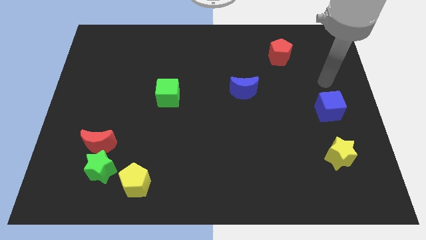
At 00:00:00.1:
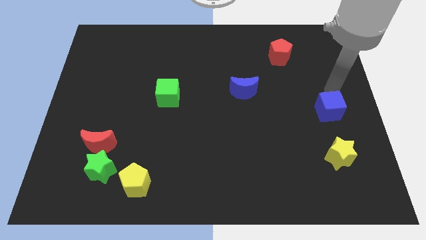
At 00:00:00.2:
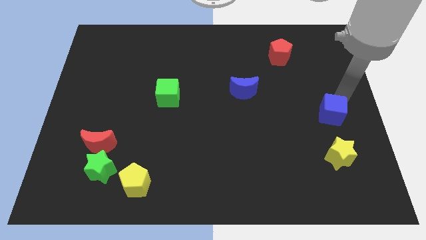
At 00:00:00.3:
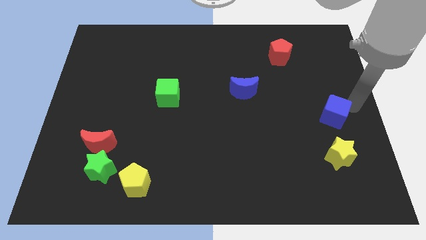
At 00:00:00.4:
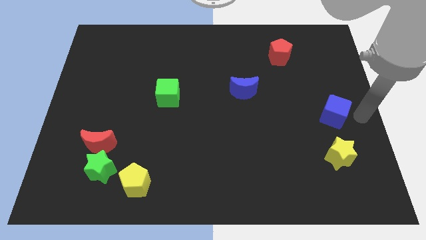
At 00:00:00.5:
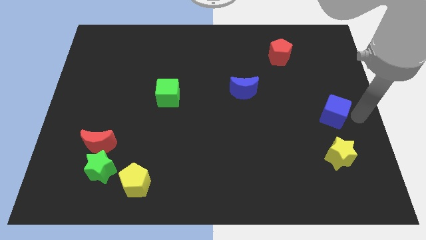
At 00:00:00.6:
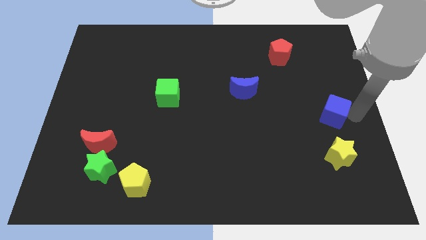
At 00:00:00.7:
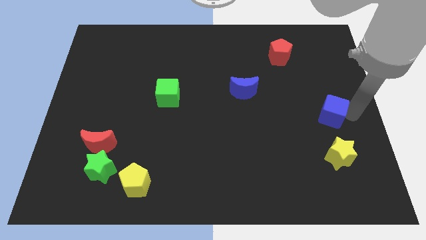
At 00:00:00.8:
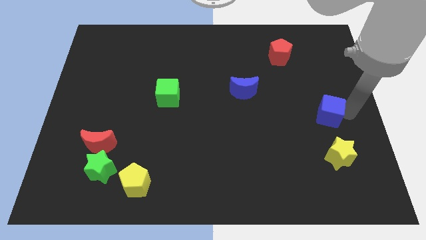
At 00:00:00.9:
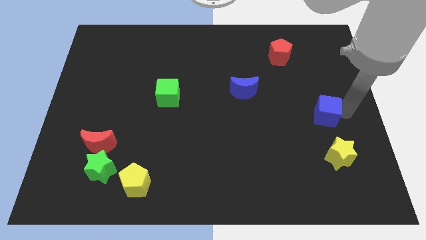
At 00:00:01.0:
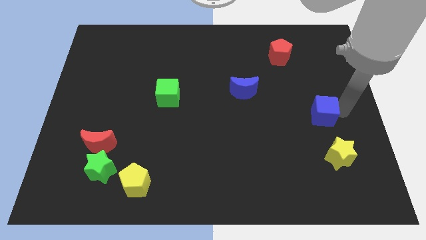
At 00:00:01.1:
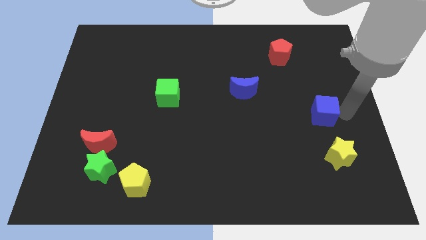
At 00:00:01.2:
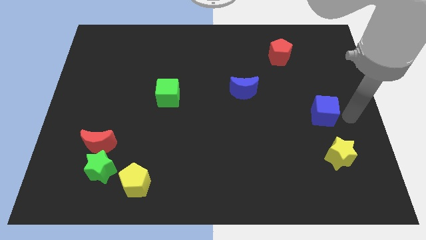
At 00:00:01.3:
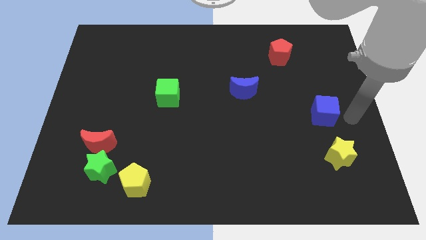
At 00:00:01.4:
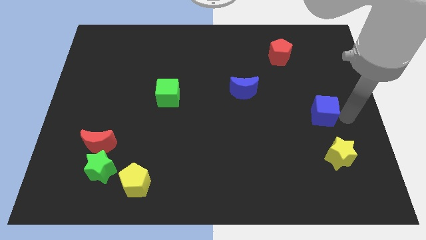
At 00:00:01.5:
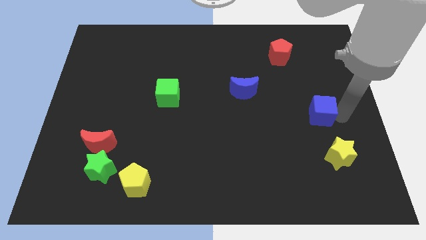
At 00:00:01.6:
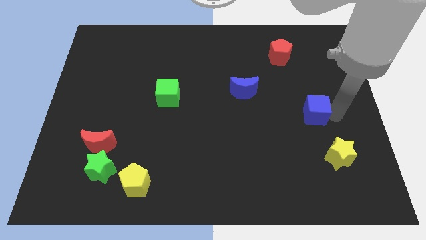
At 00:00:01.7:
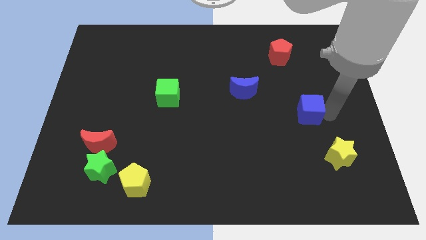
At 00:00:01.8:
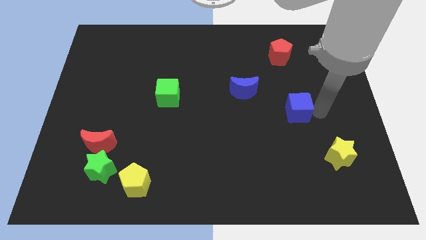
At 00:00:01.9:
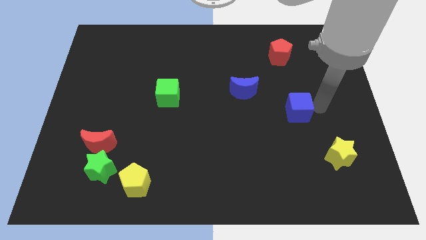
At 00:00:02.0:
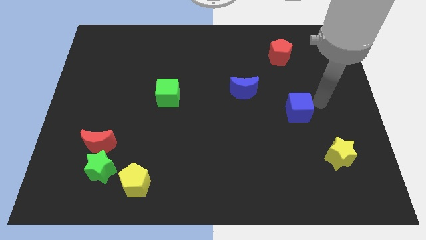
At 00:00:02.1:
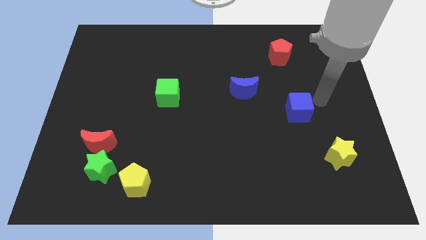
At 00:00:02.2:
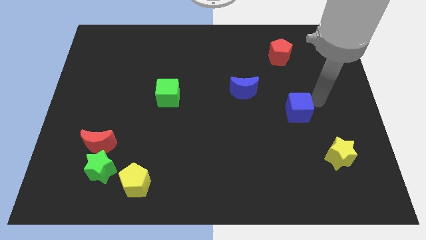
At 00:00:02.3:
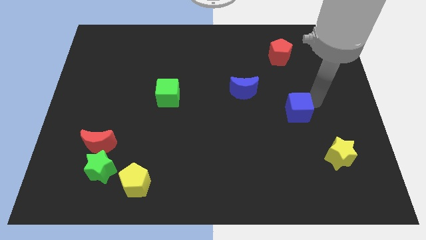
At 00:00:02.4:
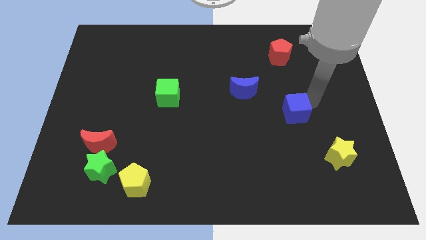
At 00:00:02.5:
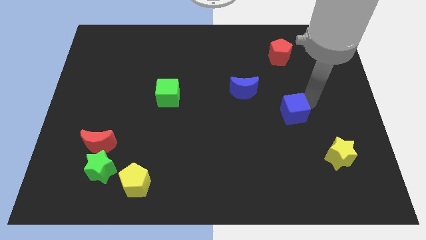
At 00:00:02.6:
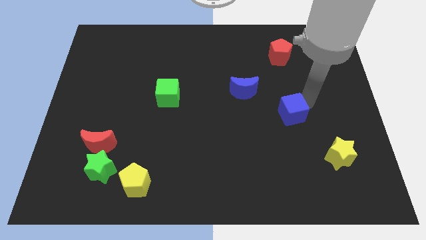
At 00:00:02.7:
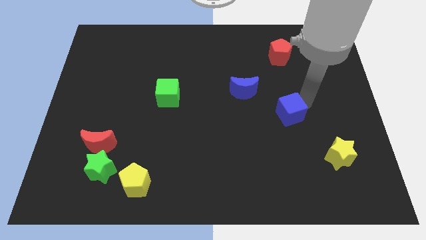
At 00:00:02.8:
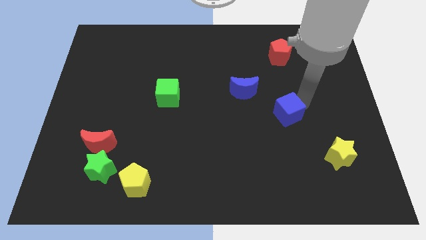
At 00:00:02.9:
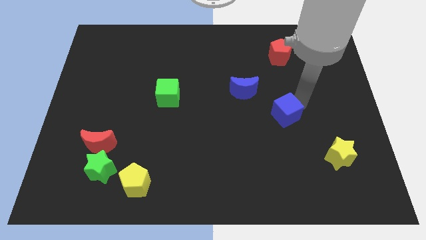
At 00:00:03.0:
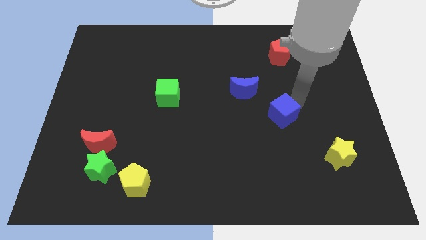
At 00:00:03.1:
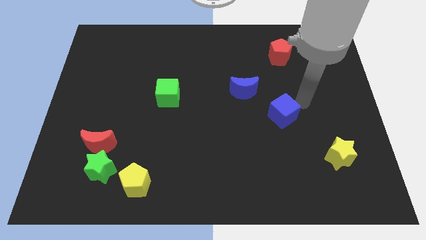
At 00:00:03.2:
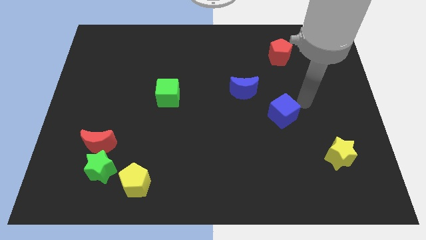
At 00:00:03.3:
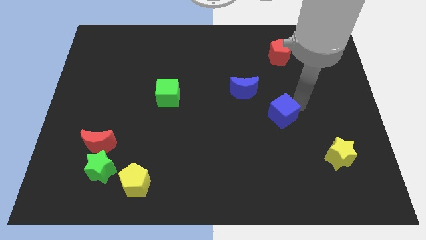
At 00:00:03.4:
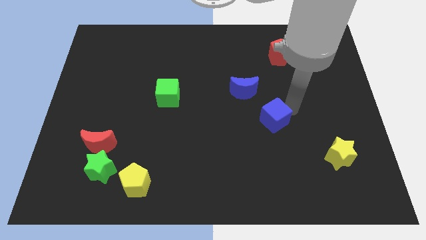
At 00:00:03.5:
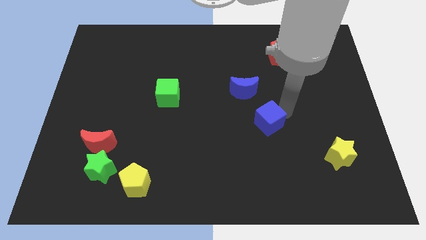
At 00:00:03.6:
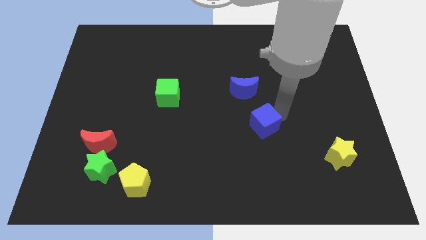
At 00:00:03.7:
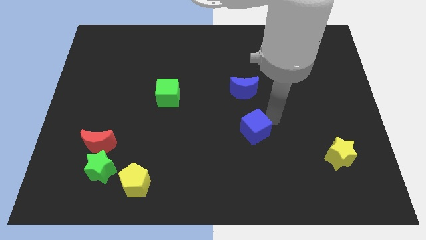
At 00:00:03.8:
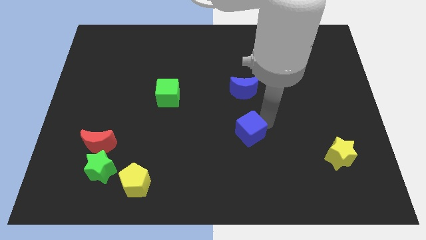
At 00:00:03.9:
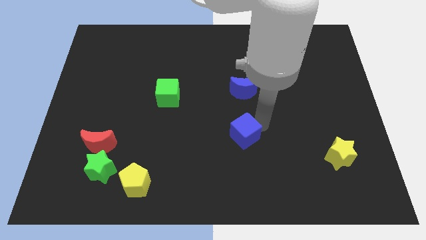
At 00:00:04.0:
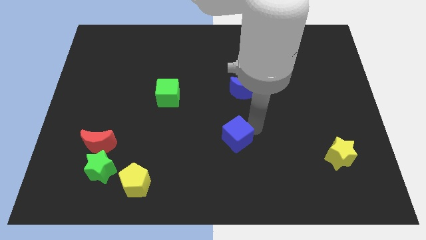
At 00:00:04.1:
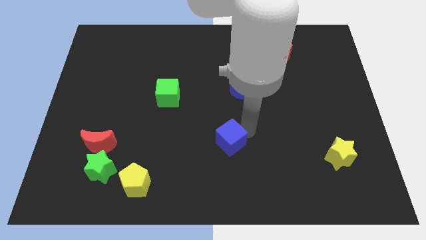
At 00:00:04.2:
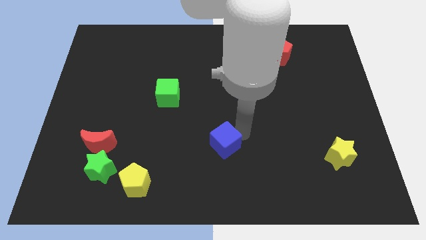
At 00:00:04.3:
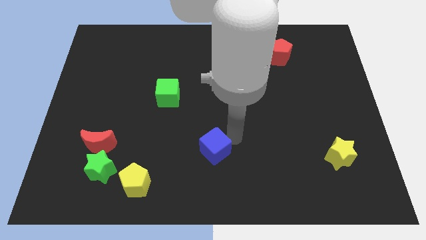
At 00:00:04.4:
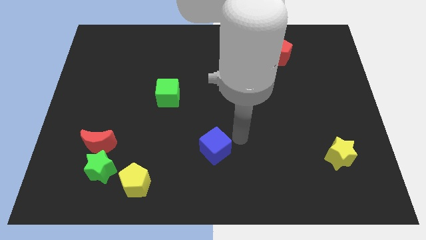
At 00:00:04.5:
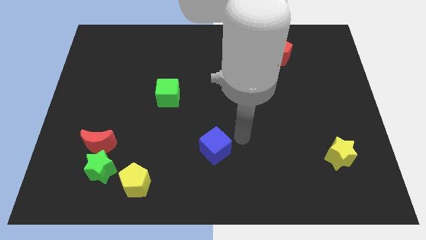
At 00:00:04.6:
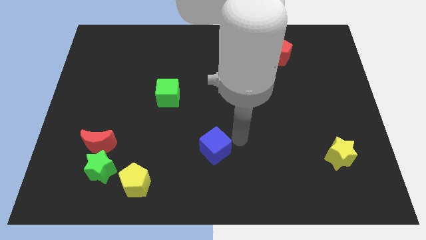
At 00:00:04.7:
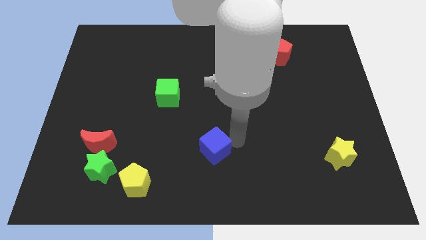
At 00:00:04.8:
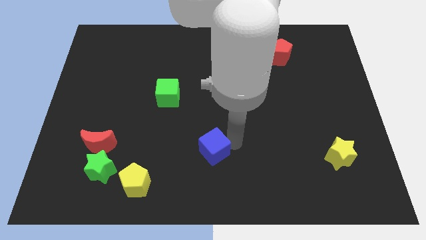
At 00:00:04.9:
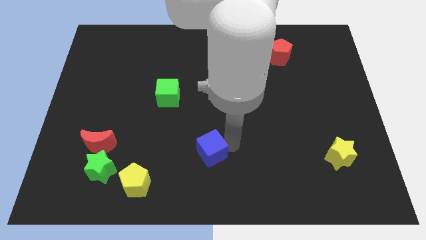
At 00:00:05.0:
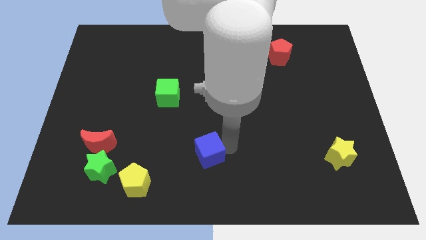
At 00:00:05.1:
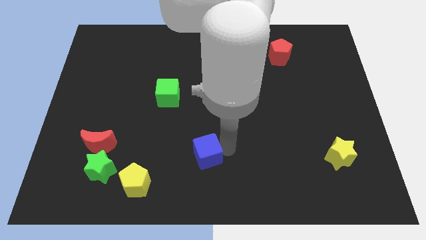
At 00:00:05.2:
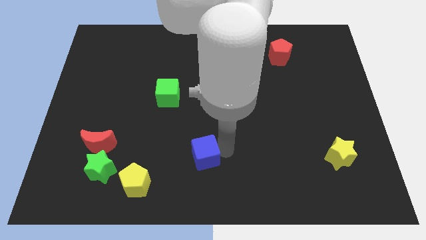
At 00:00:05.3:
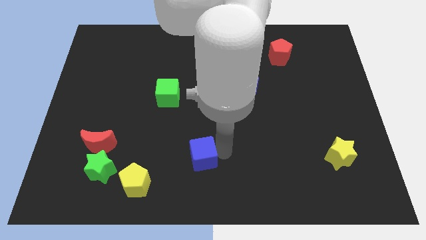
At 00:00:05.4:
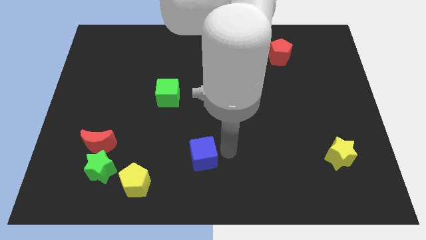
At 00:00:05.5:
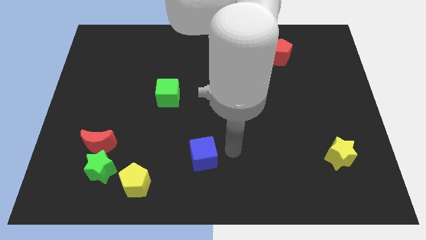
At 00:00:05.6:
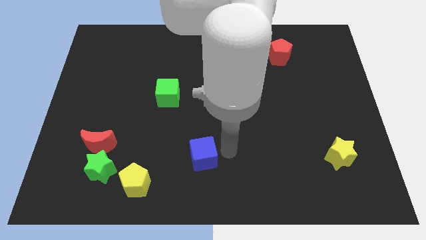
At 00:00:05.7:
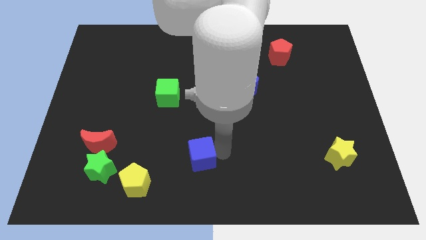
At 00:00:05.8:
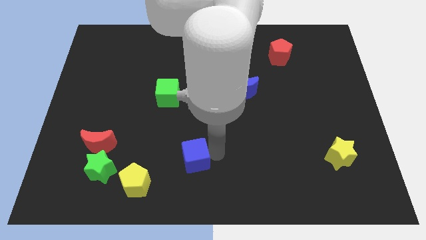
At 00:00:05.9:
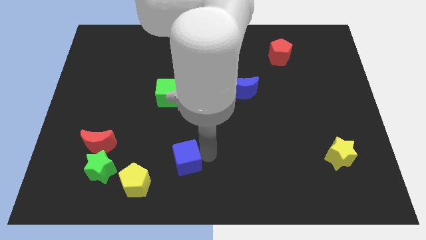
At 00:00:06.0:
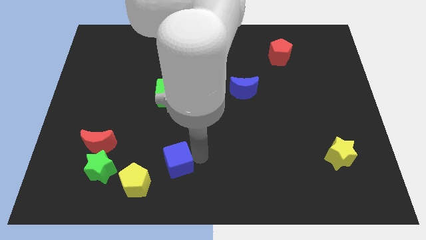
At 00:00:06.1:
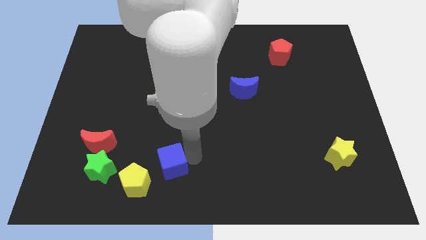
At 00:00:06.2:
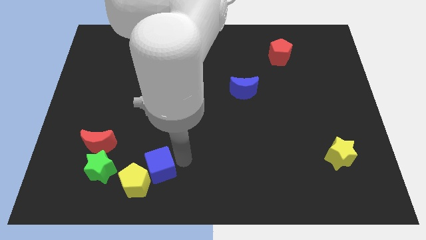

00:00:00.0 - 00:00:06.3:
slide the blue cube towards the yellow pentagon
